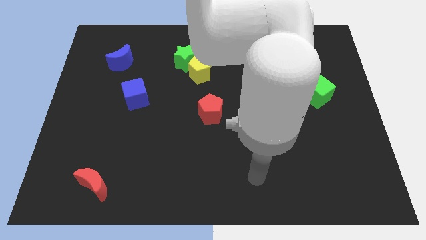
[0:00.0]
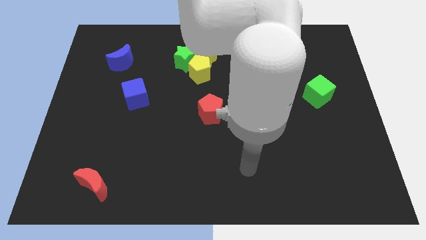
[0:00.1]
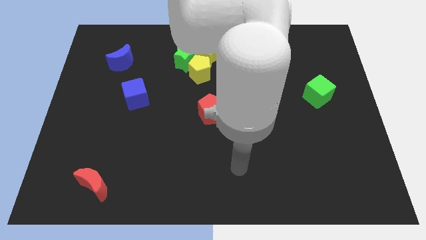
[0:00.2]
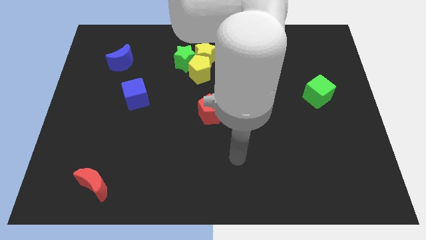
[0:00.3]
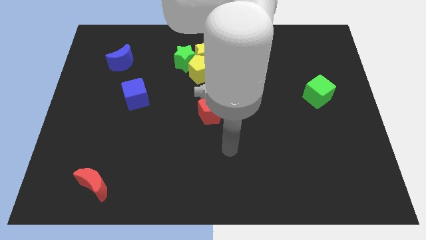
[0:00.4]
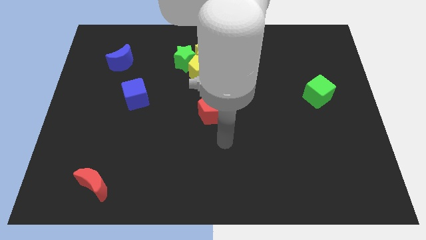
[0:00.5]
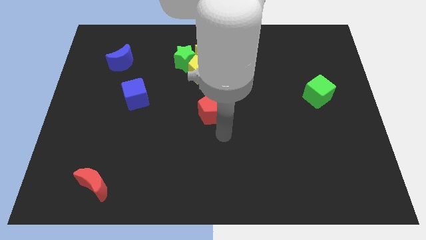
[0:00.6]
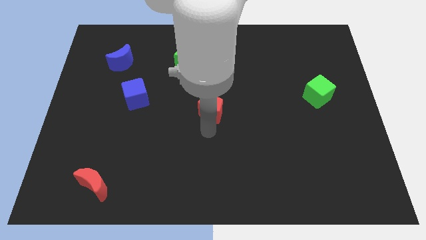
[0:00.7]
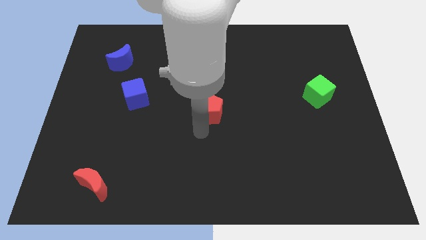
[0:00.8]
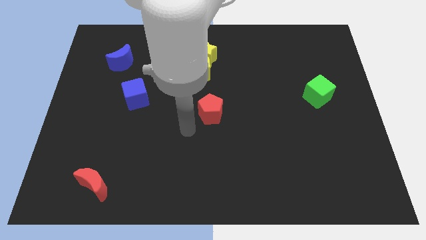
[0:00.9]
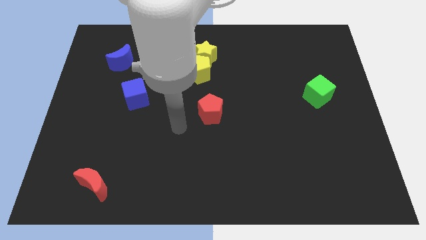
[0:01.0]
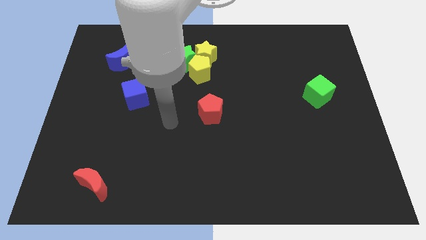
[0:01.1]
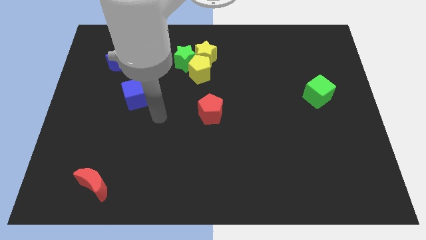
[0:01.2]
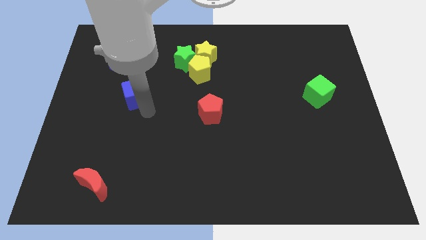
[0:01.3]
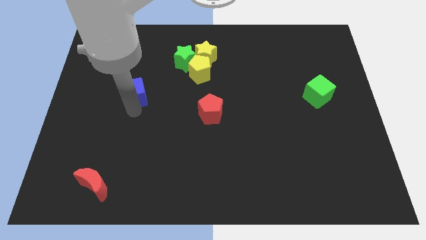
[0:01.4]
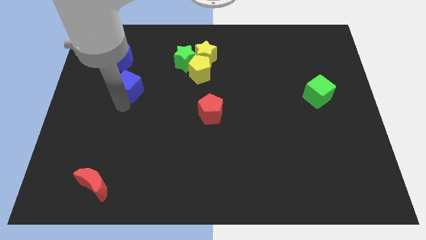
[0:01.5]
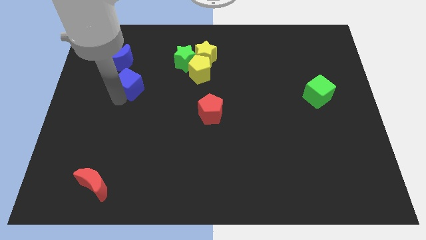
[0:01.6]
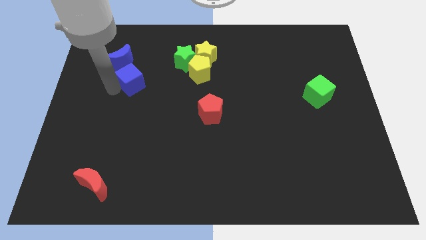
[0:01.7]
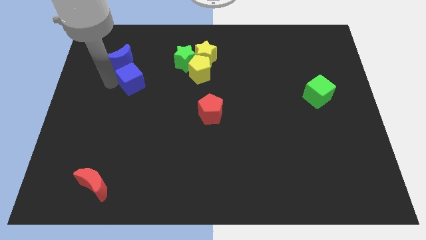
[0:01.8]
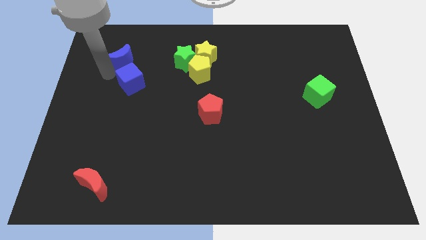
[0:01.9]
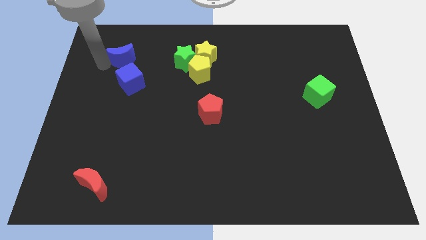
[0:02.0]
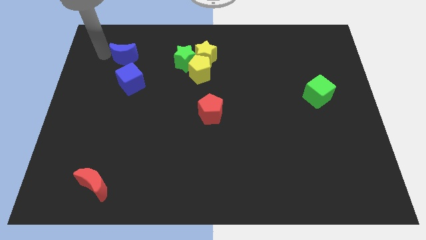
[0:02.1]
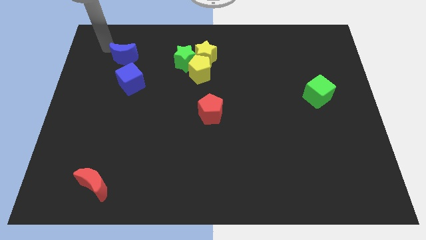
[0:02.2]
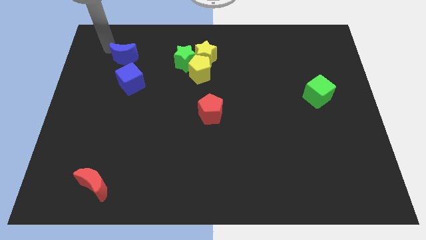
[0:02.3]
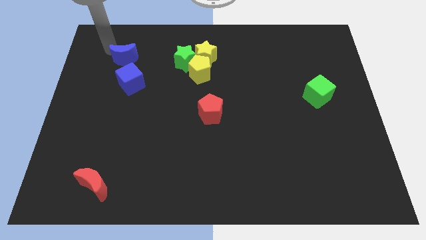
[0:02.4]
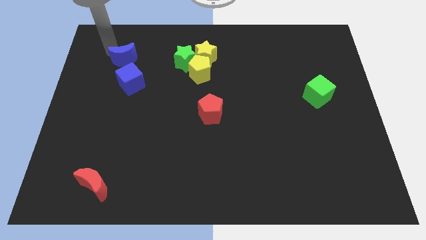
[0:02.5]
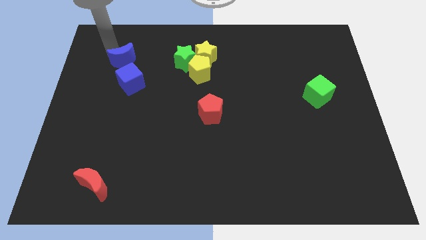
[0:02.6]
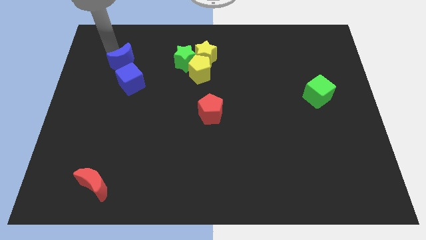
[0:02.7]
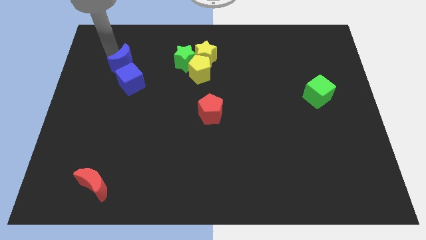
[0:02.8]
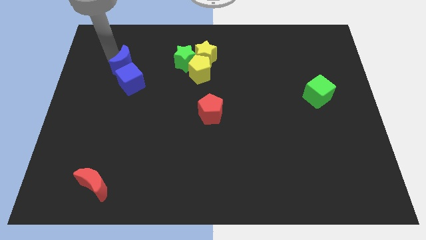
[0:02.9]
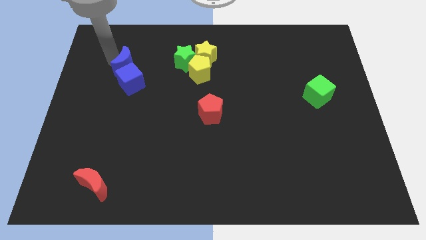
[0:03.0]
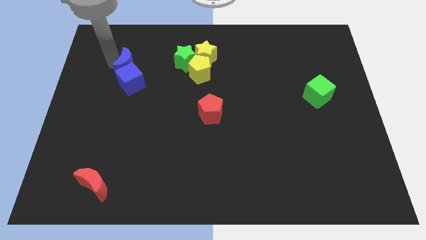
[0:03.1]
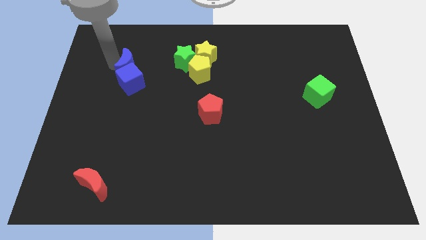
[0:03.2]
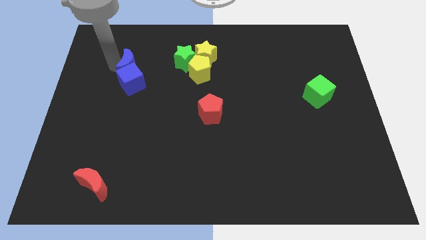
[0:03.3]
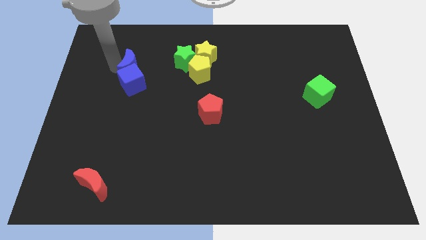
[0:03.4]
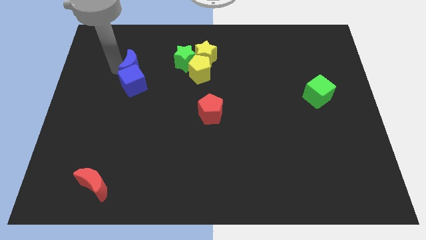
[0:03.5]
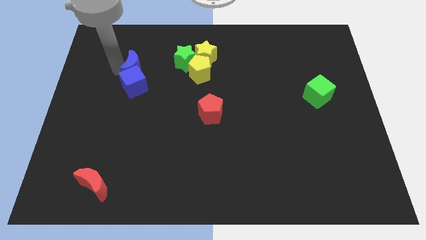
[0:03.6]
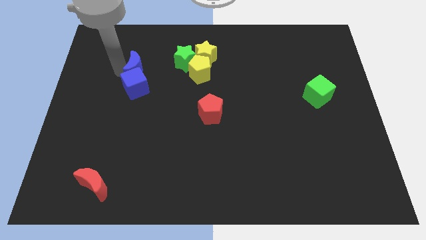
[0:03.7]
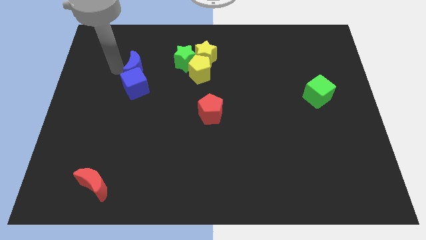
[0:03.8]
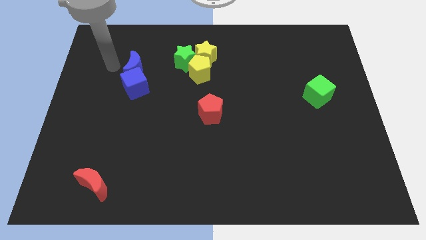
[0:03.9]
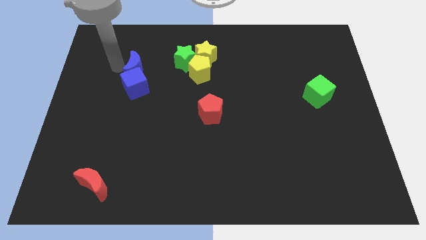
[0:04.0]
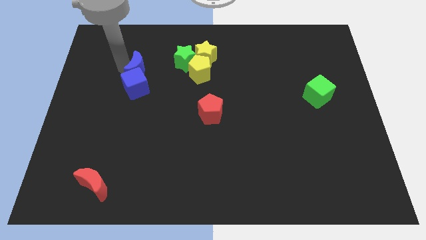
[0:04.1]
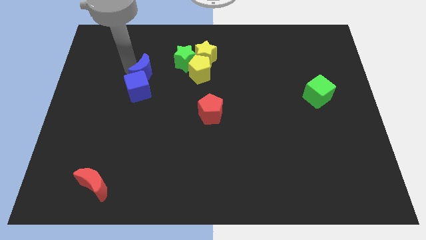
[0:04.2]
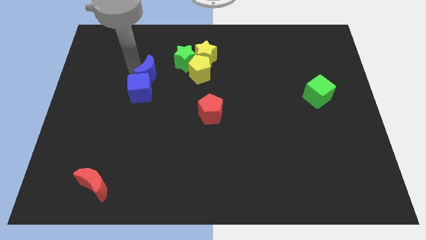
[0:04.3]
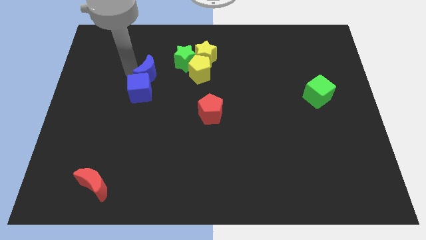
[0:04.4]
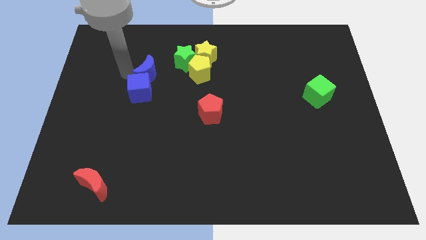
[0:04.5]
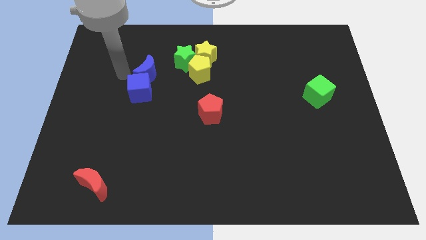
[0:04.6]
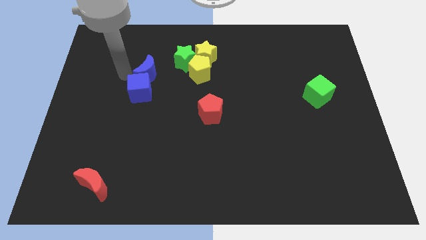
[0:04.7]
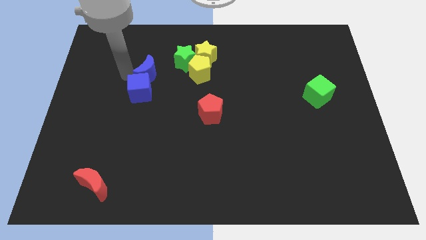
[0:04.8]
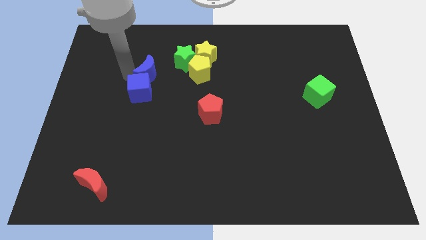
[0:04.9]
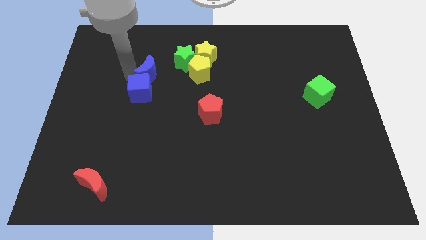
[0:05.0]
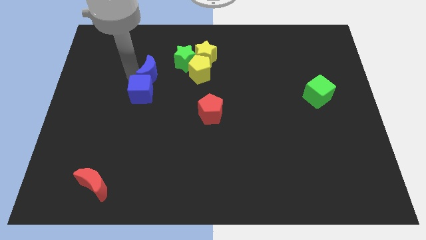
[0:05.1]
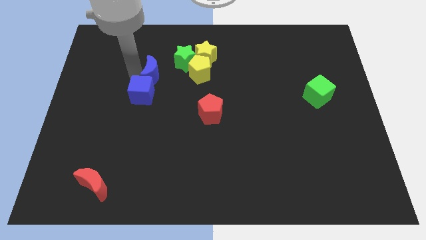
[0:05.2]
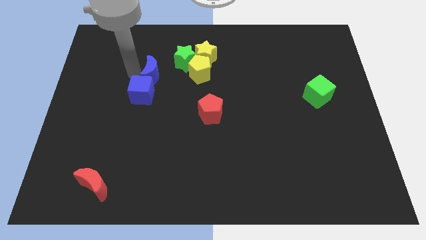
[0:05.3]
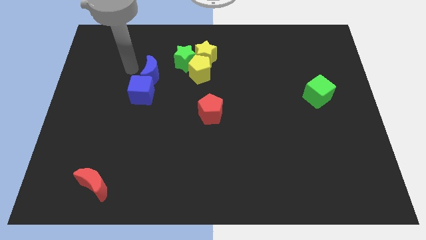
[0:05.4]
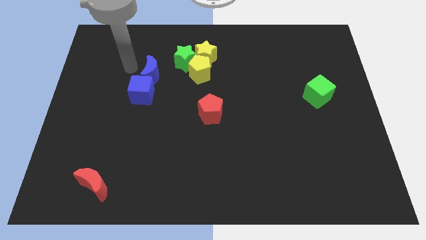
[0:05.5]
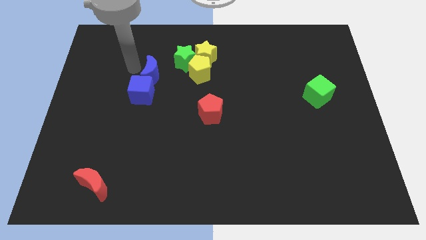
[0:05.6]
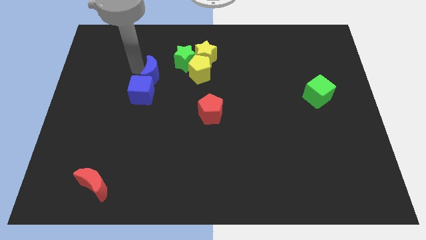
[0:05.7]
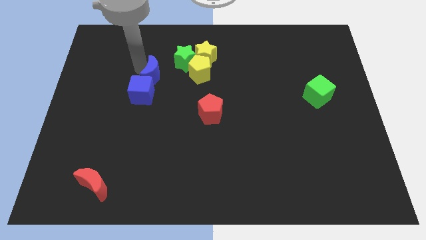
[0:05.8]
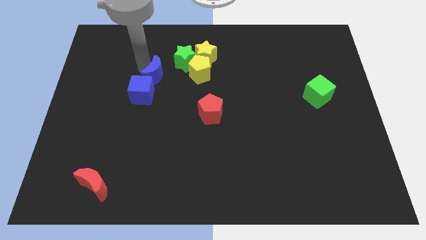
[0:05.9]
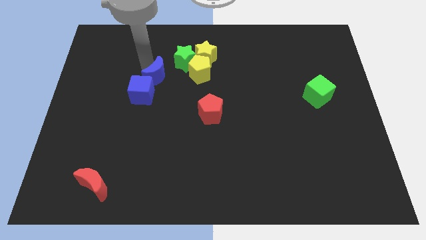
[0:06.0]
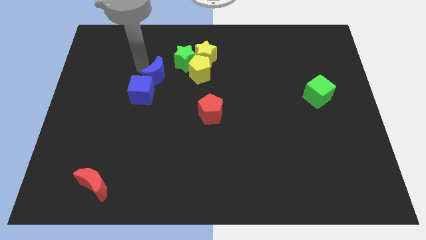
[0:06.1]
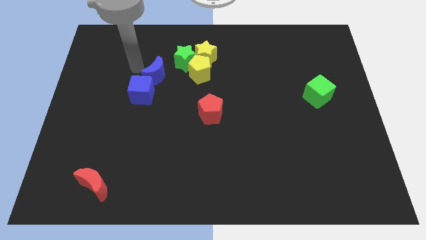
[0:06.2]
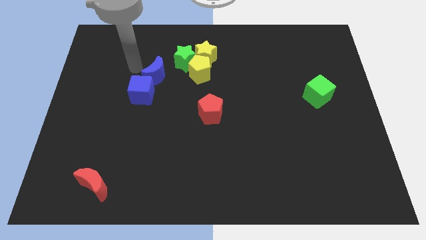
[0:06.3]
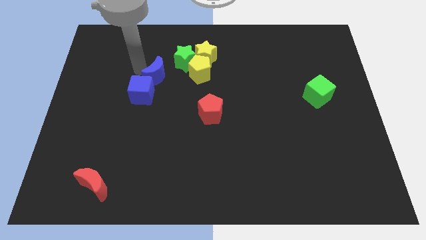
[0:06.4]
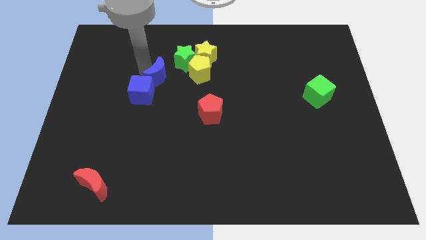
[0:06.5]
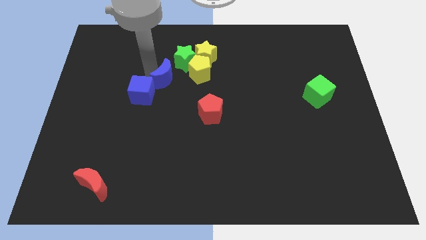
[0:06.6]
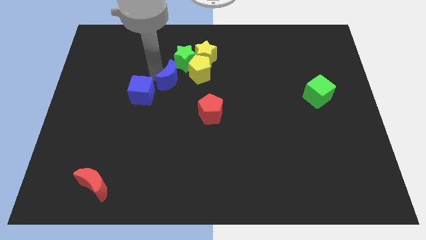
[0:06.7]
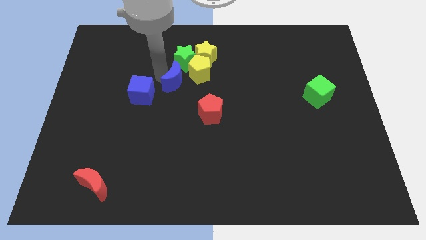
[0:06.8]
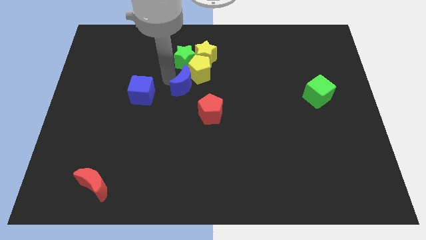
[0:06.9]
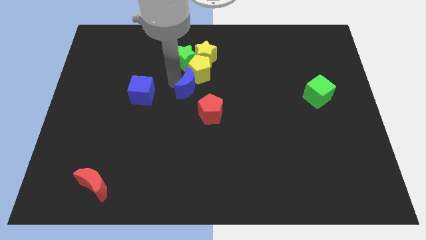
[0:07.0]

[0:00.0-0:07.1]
move the blue moon to the bottom side of the yellow star
